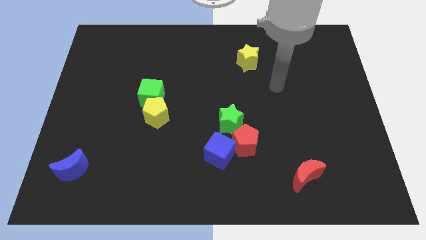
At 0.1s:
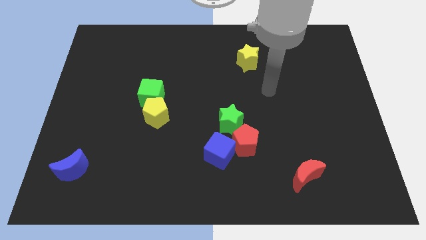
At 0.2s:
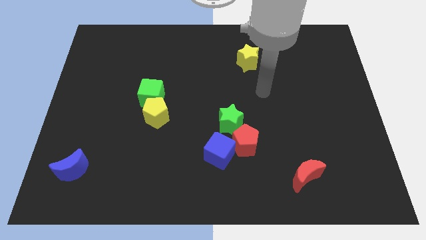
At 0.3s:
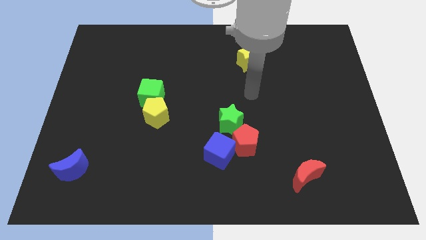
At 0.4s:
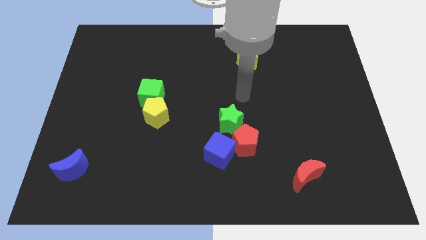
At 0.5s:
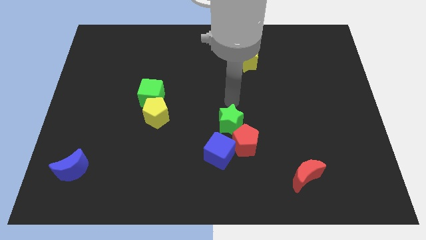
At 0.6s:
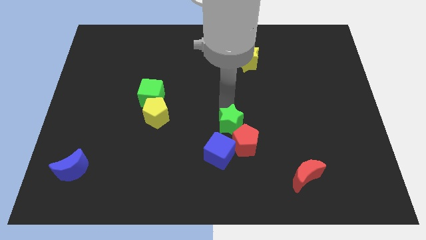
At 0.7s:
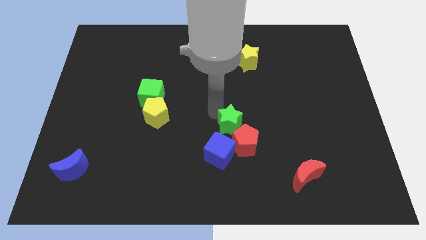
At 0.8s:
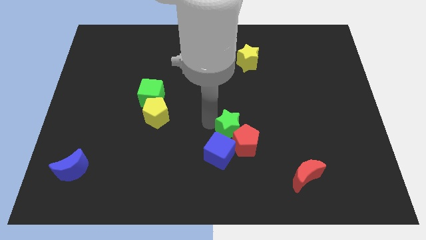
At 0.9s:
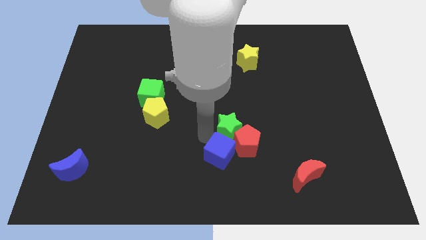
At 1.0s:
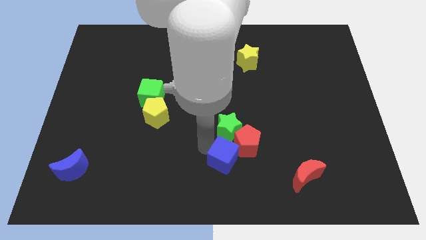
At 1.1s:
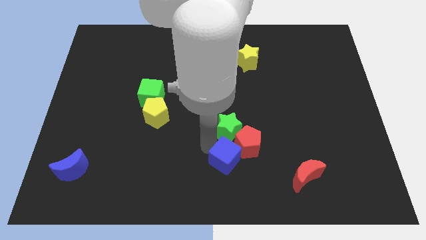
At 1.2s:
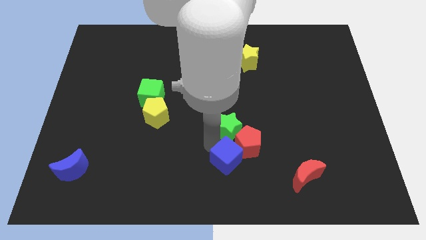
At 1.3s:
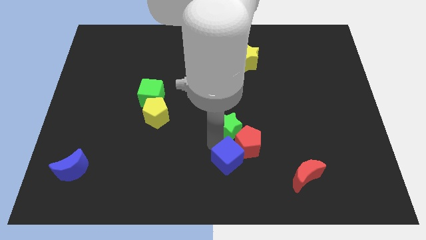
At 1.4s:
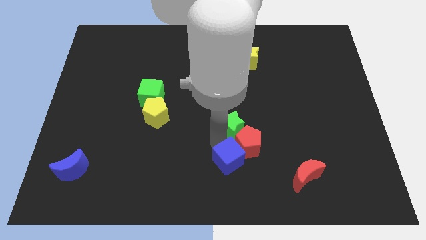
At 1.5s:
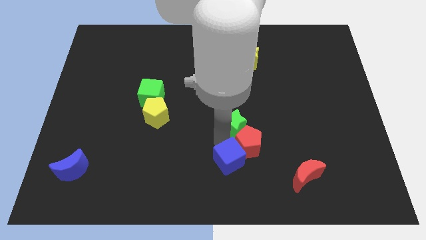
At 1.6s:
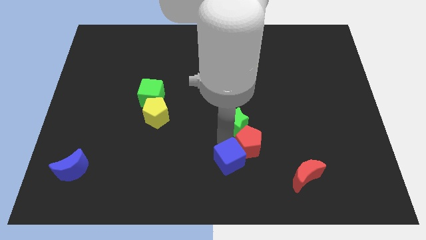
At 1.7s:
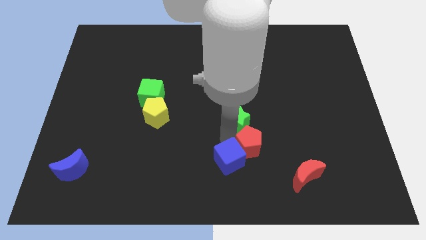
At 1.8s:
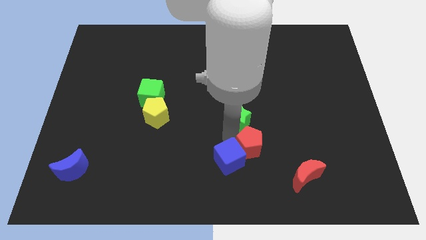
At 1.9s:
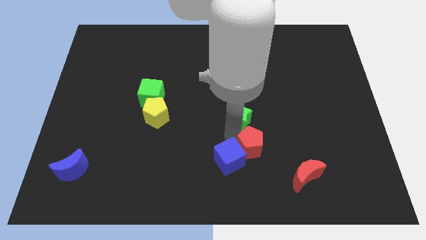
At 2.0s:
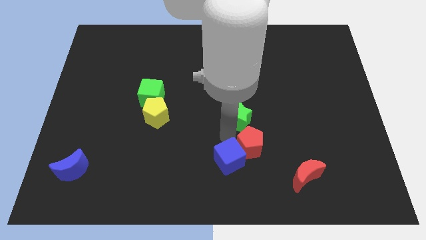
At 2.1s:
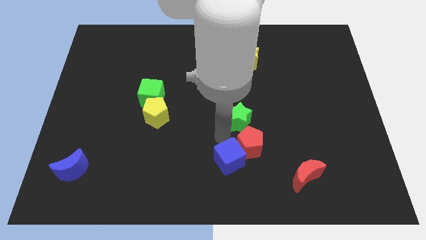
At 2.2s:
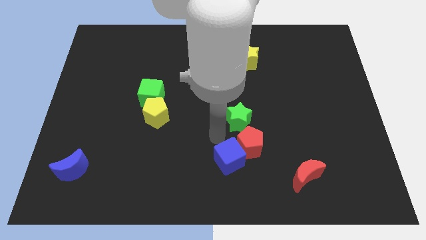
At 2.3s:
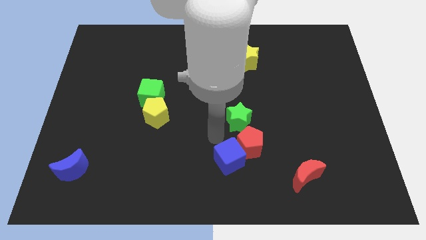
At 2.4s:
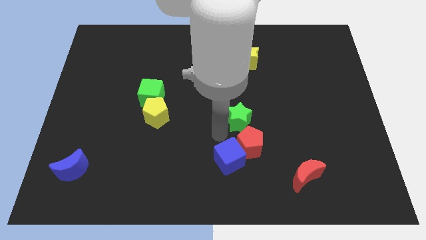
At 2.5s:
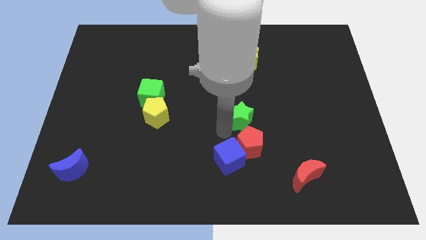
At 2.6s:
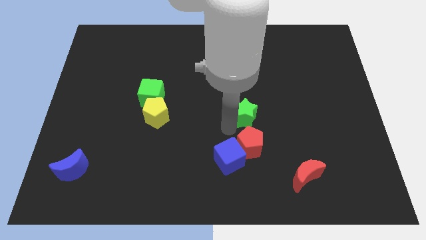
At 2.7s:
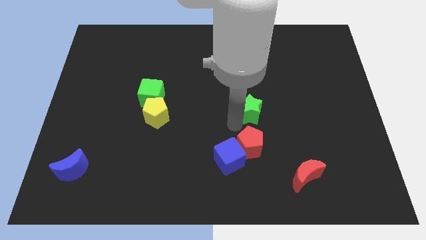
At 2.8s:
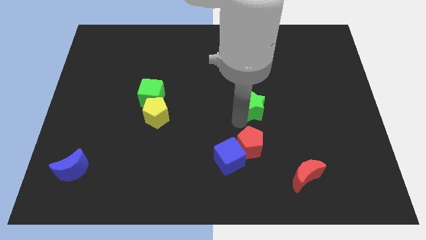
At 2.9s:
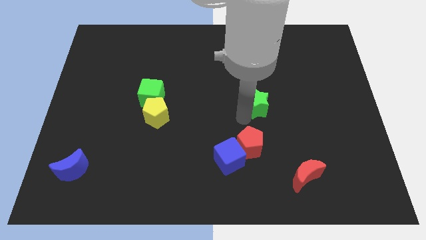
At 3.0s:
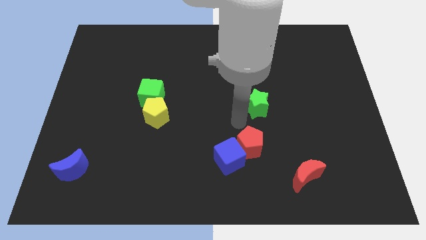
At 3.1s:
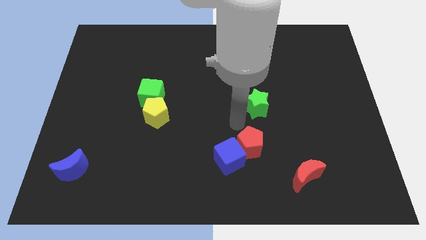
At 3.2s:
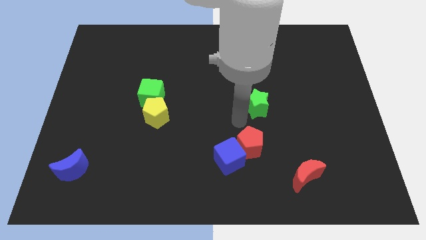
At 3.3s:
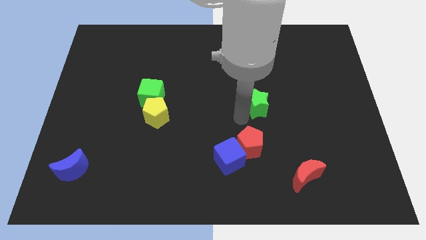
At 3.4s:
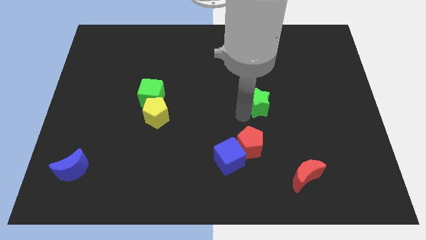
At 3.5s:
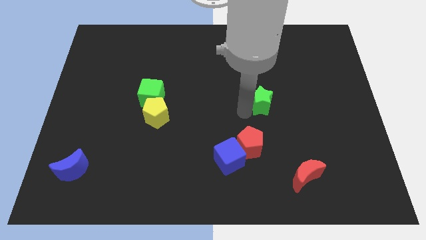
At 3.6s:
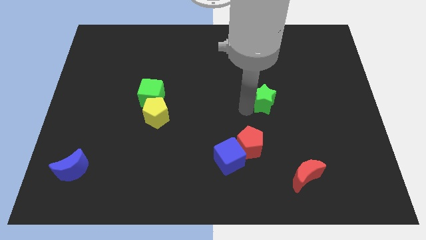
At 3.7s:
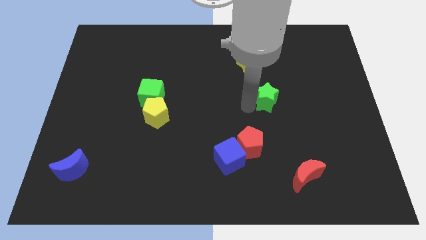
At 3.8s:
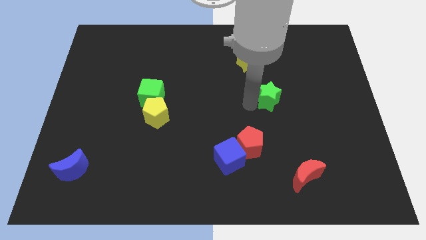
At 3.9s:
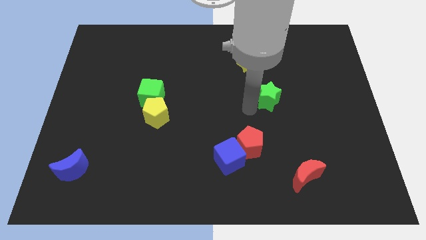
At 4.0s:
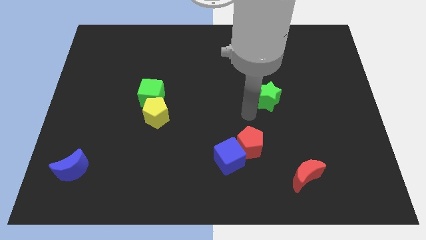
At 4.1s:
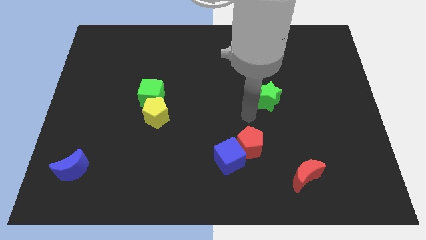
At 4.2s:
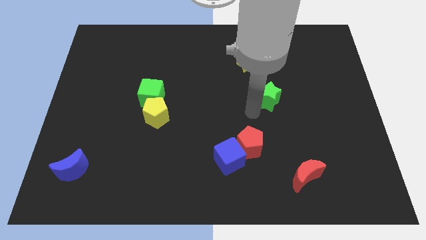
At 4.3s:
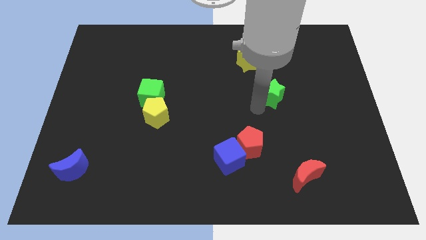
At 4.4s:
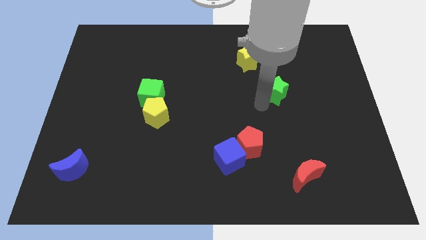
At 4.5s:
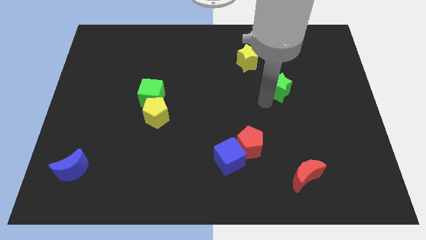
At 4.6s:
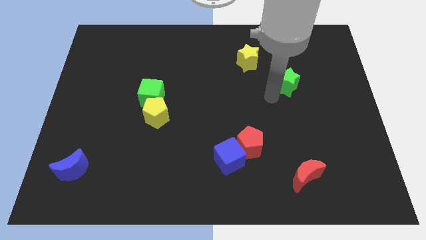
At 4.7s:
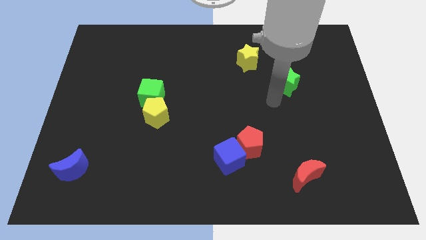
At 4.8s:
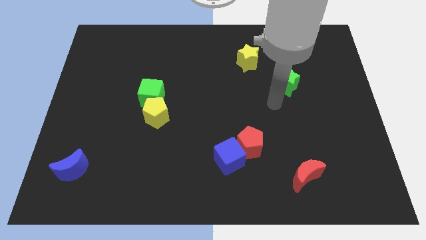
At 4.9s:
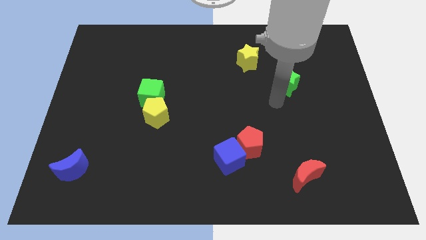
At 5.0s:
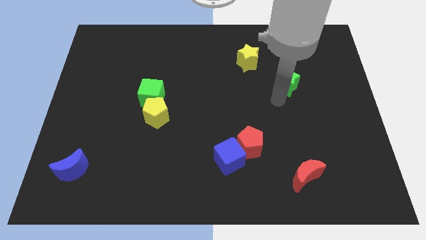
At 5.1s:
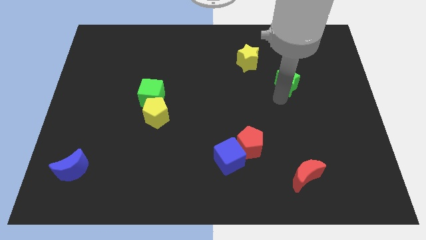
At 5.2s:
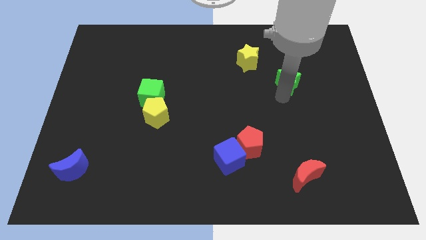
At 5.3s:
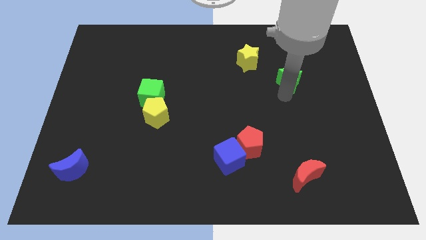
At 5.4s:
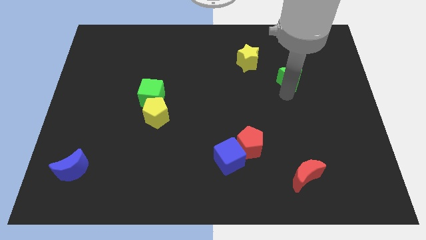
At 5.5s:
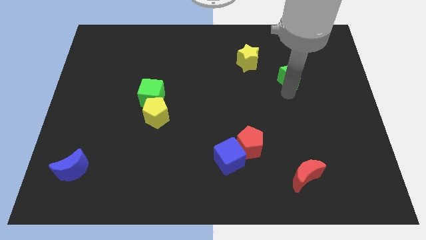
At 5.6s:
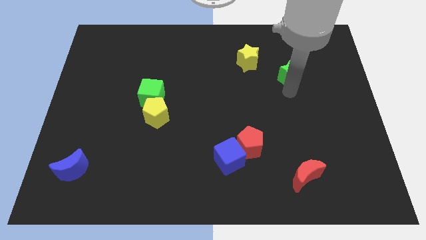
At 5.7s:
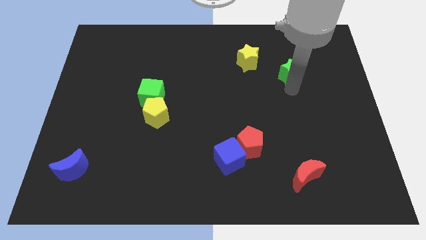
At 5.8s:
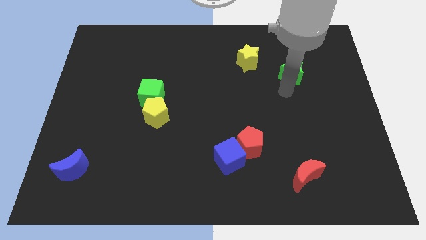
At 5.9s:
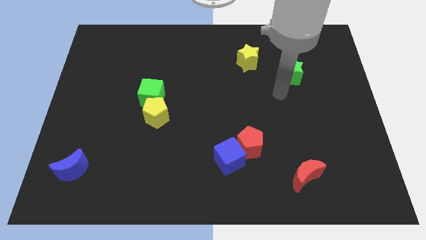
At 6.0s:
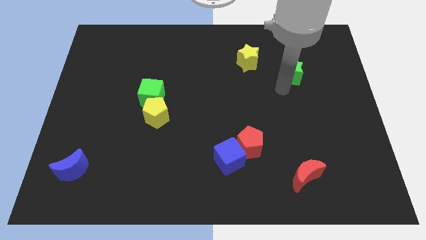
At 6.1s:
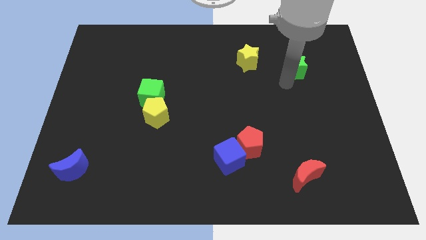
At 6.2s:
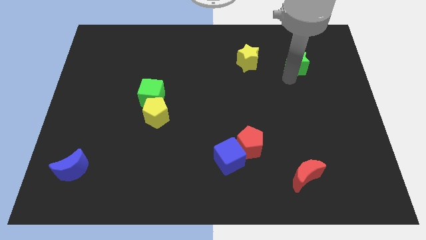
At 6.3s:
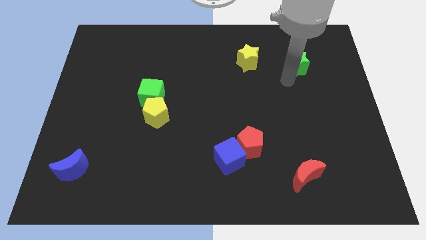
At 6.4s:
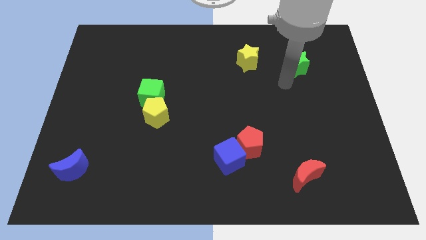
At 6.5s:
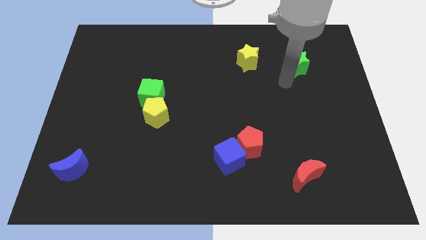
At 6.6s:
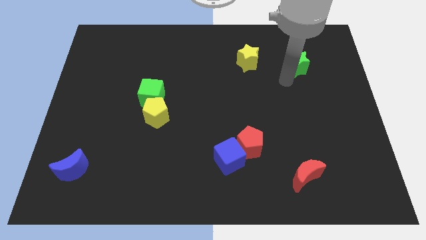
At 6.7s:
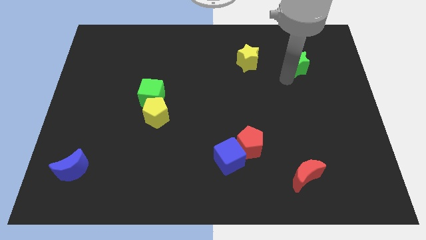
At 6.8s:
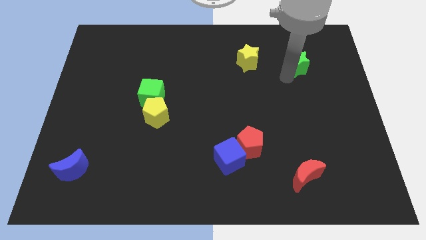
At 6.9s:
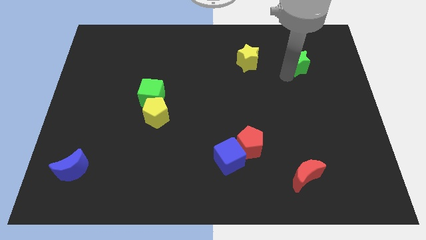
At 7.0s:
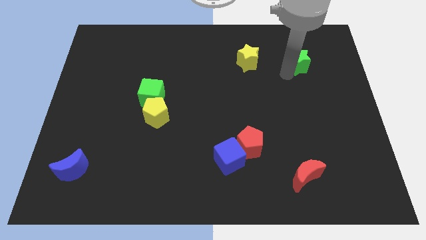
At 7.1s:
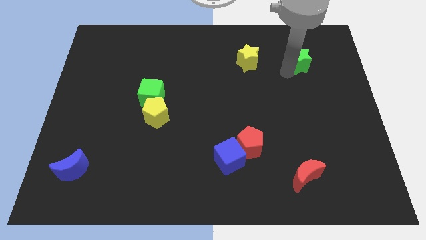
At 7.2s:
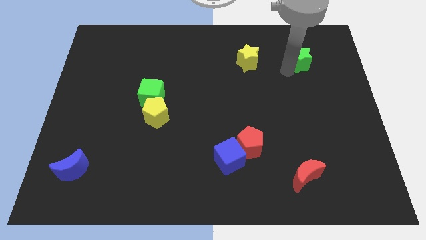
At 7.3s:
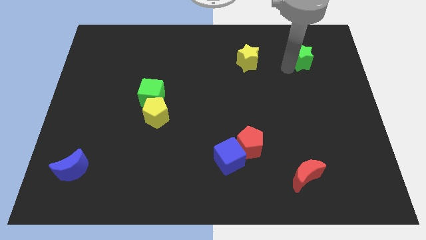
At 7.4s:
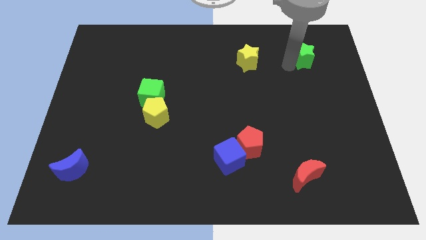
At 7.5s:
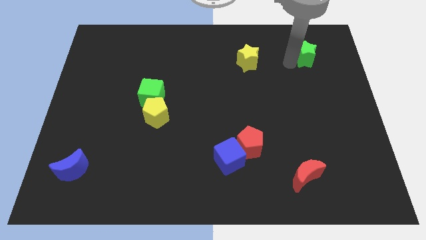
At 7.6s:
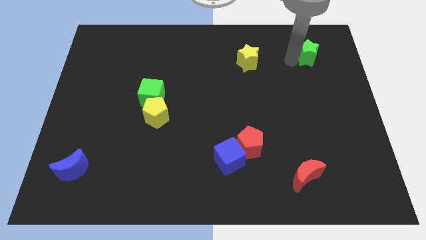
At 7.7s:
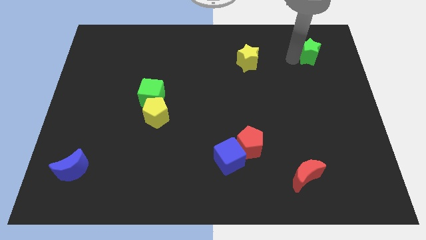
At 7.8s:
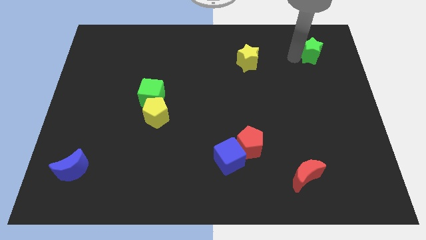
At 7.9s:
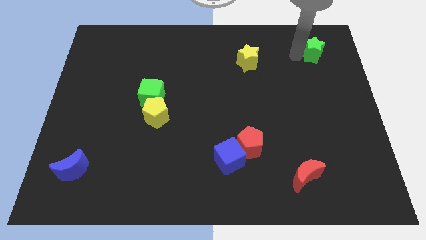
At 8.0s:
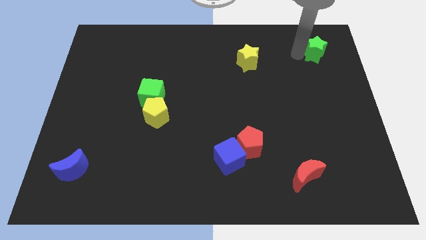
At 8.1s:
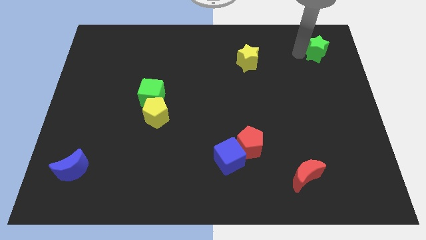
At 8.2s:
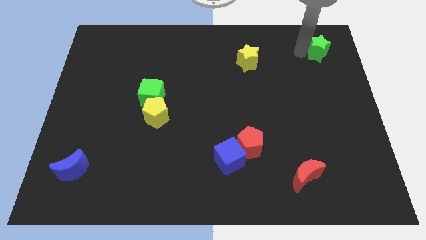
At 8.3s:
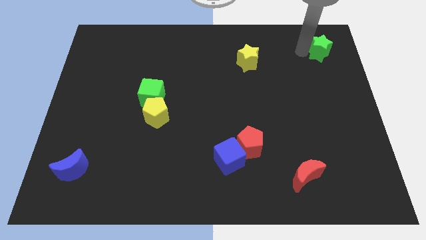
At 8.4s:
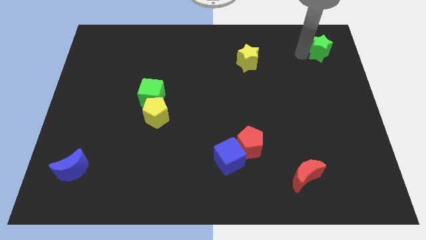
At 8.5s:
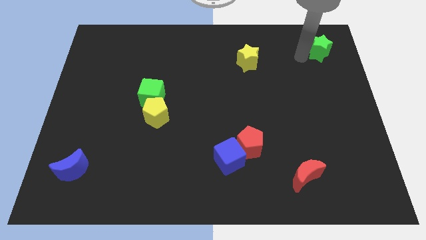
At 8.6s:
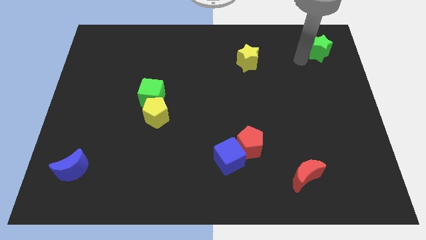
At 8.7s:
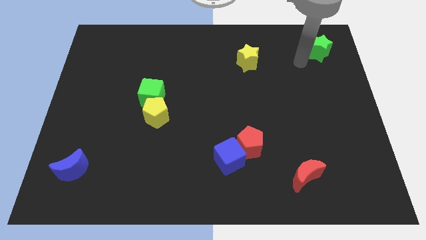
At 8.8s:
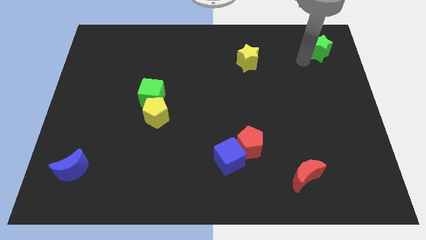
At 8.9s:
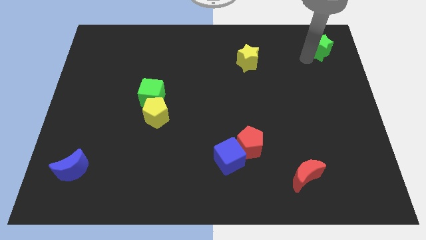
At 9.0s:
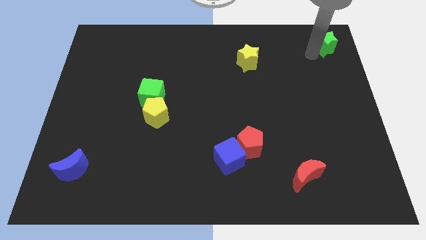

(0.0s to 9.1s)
slide the green star to the upper right corner
